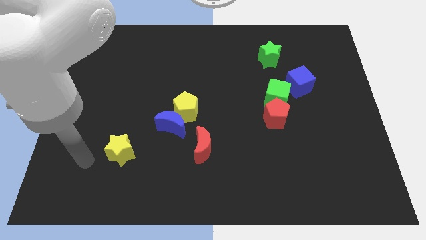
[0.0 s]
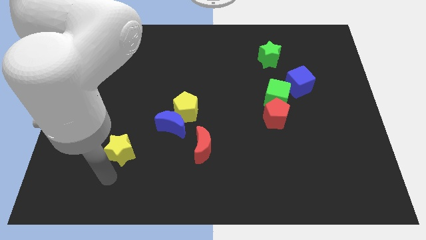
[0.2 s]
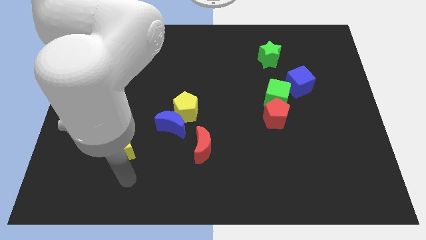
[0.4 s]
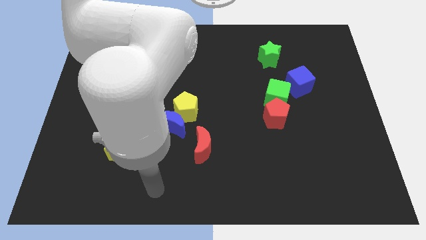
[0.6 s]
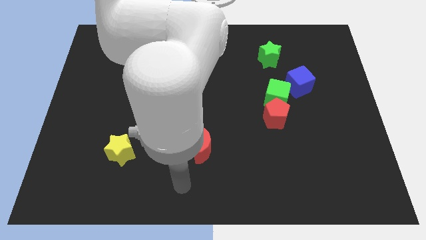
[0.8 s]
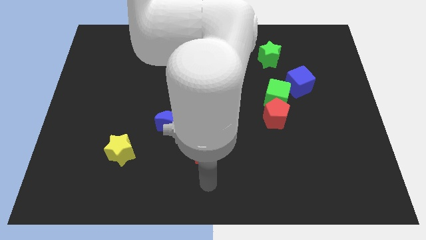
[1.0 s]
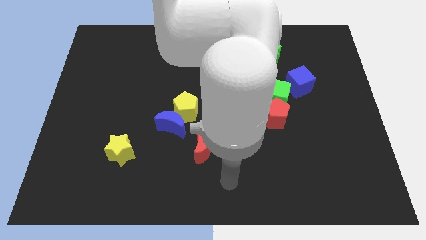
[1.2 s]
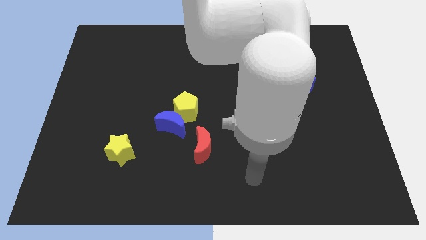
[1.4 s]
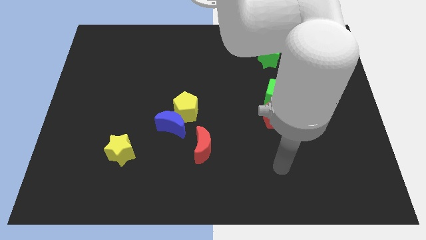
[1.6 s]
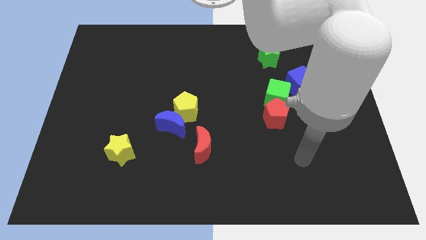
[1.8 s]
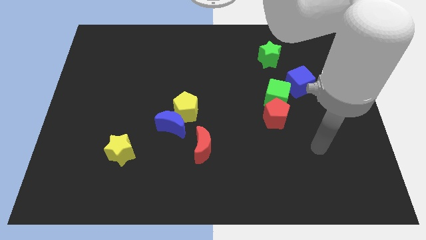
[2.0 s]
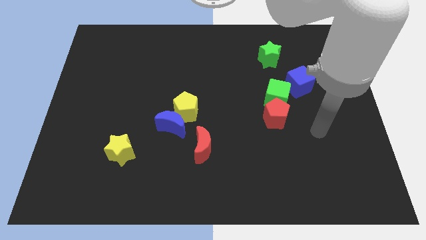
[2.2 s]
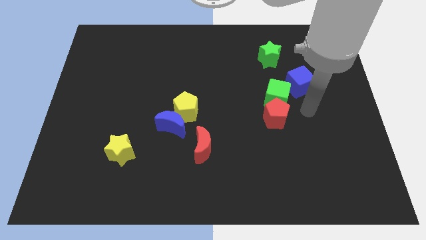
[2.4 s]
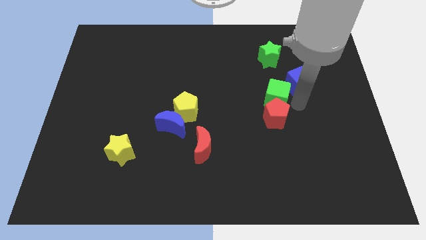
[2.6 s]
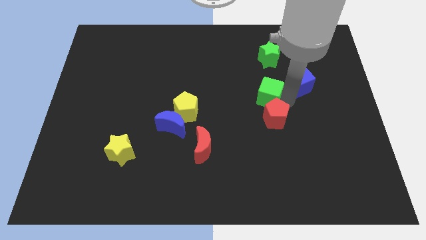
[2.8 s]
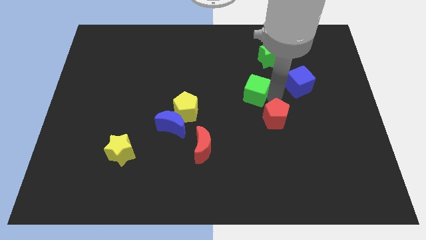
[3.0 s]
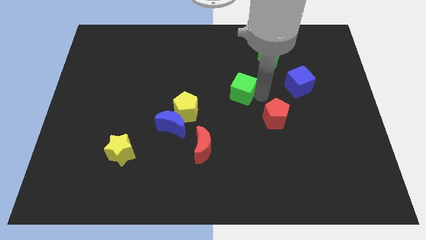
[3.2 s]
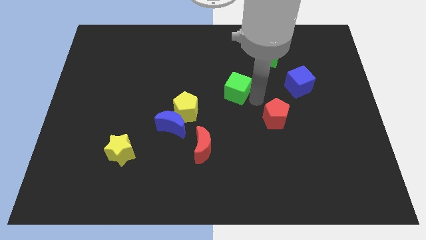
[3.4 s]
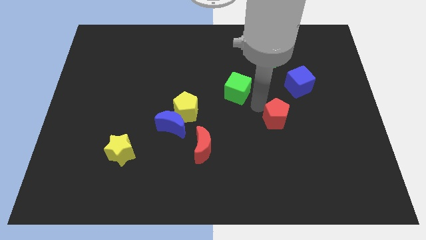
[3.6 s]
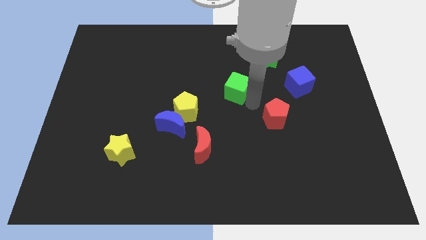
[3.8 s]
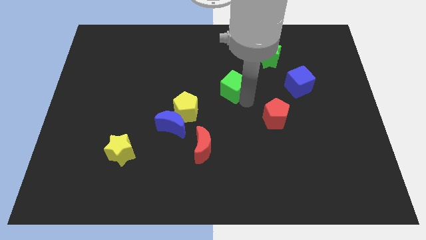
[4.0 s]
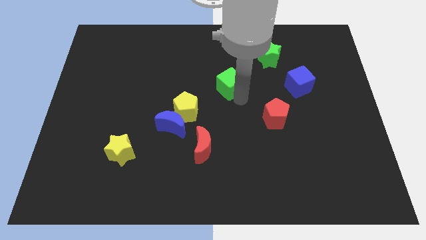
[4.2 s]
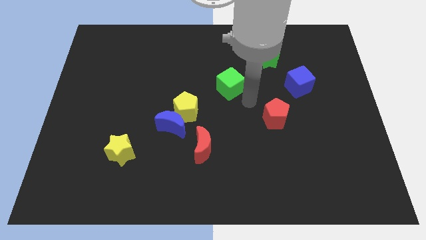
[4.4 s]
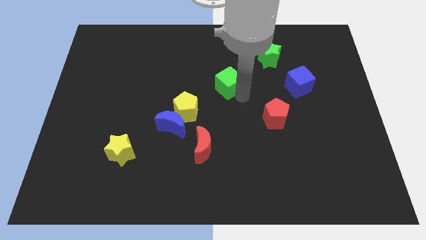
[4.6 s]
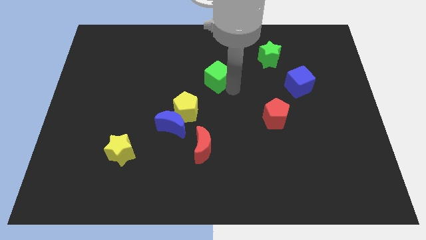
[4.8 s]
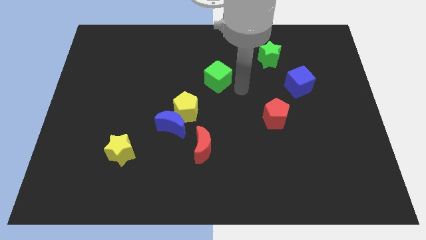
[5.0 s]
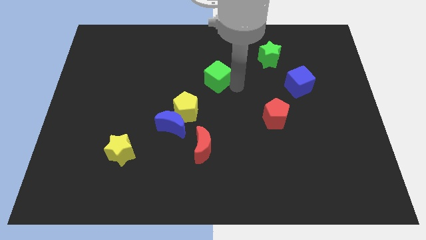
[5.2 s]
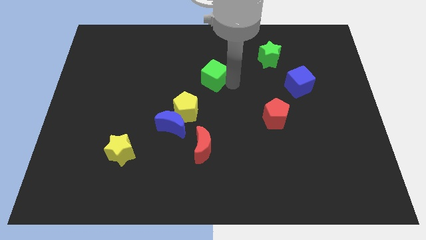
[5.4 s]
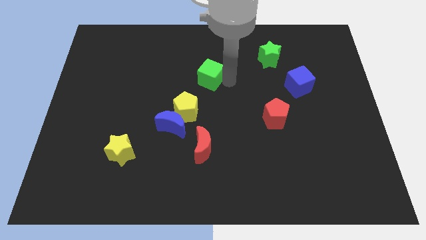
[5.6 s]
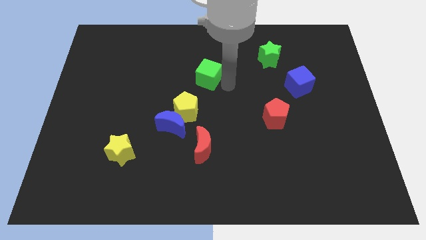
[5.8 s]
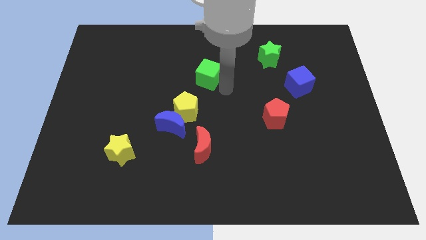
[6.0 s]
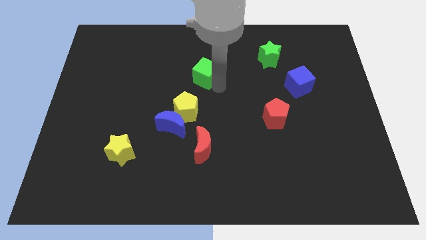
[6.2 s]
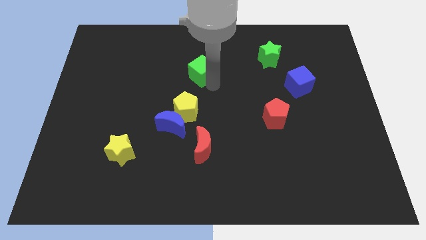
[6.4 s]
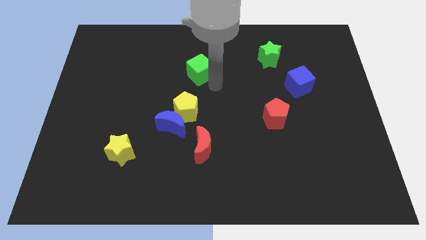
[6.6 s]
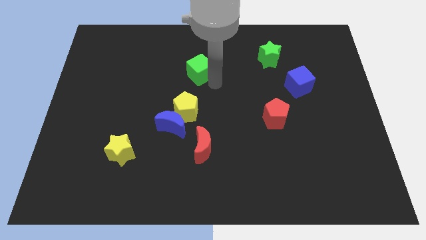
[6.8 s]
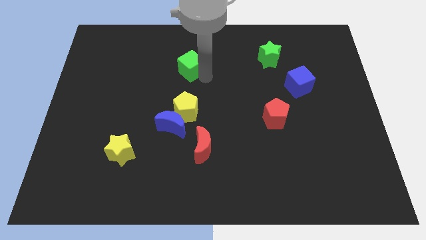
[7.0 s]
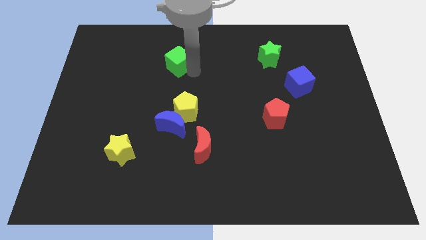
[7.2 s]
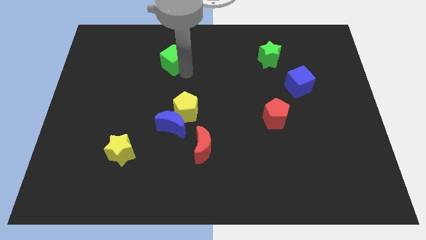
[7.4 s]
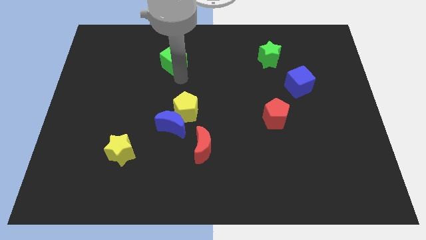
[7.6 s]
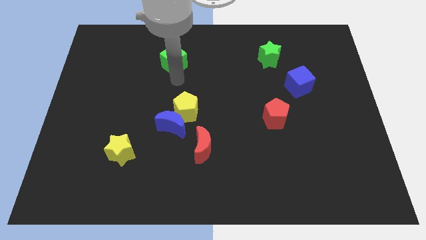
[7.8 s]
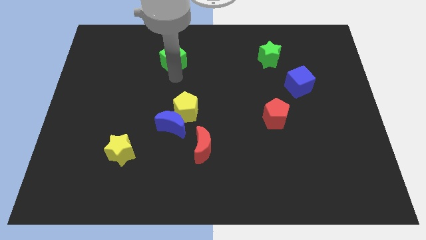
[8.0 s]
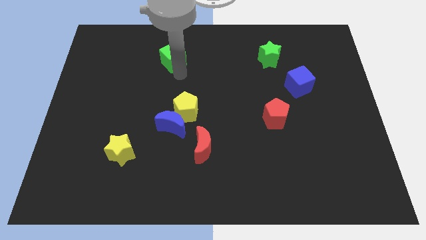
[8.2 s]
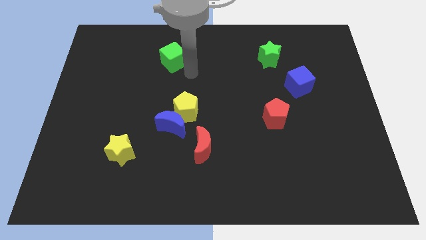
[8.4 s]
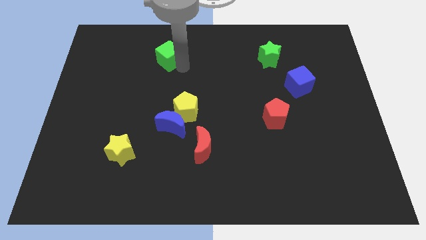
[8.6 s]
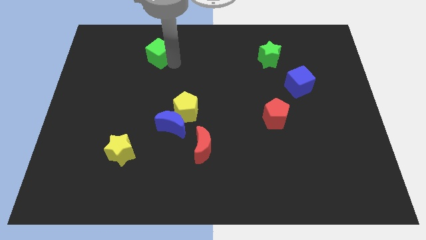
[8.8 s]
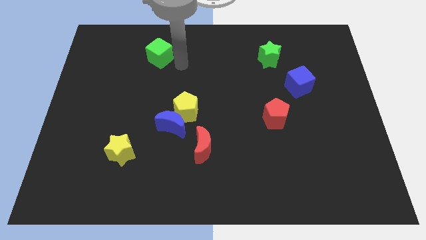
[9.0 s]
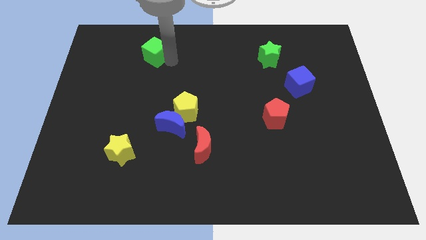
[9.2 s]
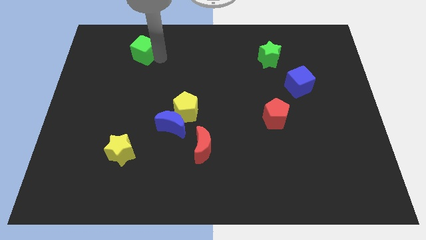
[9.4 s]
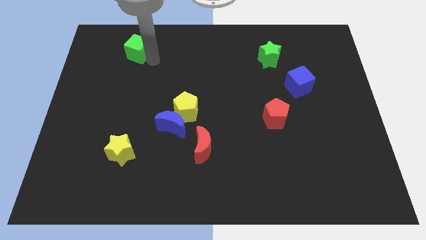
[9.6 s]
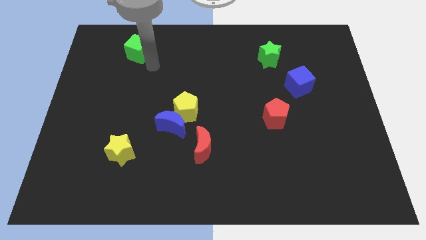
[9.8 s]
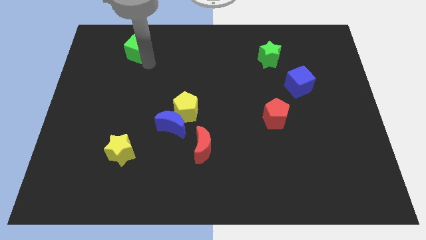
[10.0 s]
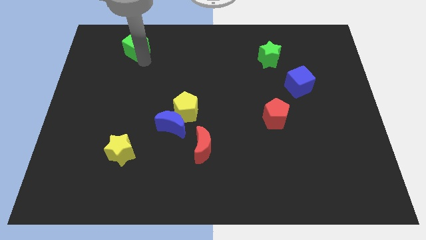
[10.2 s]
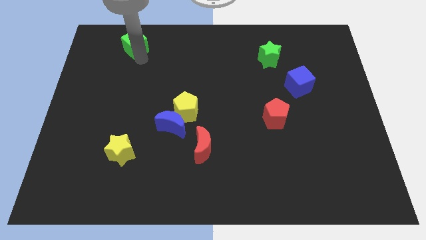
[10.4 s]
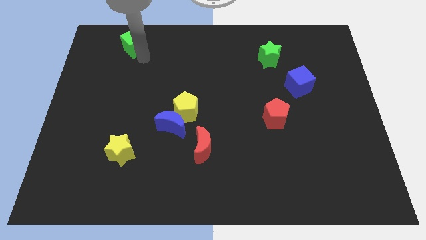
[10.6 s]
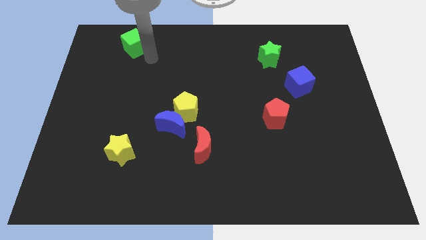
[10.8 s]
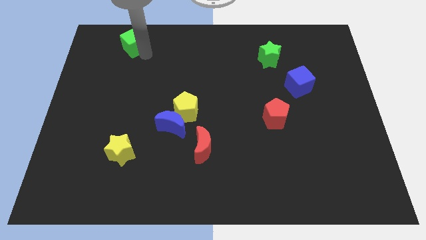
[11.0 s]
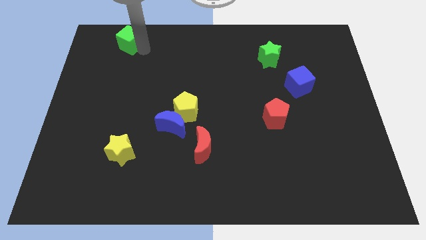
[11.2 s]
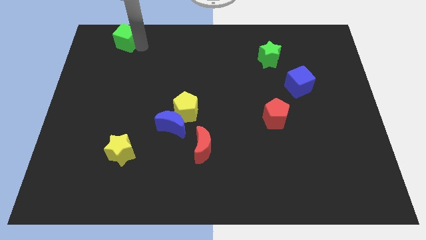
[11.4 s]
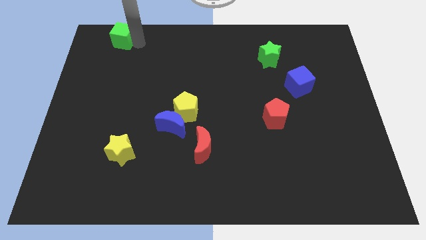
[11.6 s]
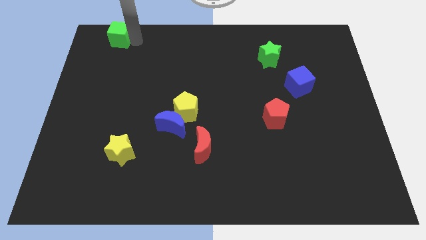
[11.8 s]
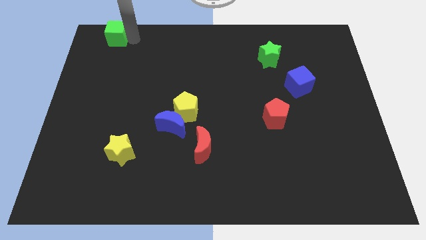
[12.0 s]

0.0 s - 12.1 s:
put the green cube to the top left of the board

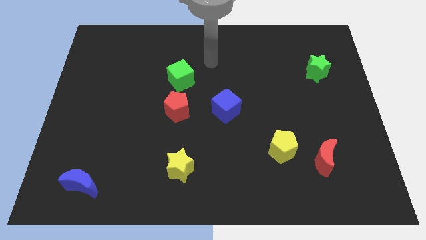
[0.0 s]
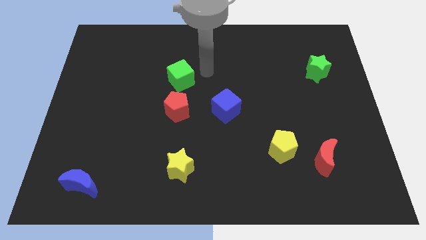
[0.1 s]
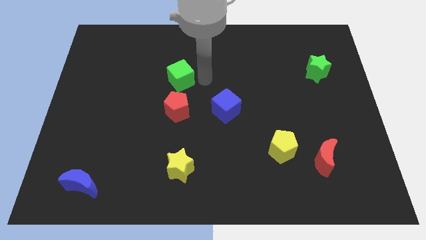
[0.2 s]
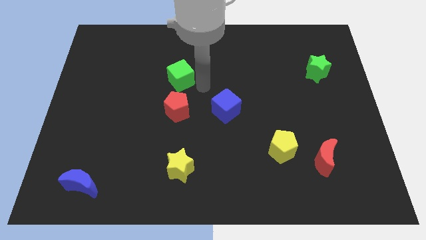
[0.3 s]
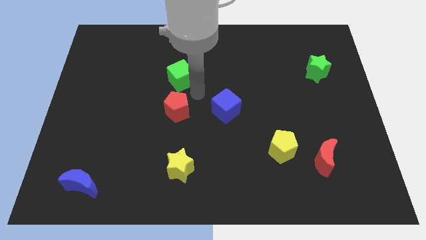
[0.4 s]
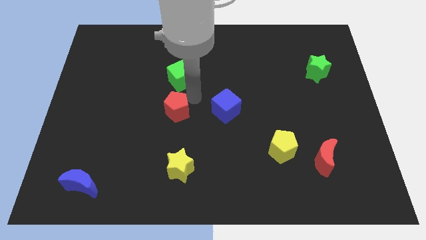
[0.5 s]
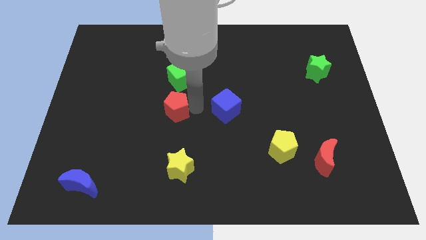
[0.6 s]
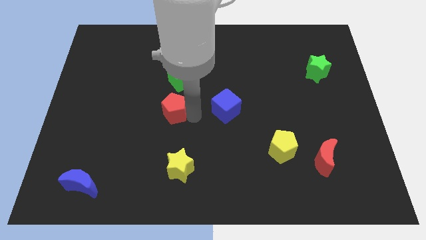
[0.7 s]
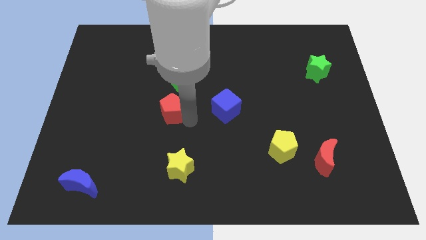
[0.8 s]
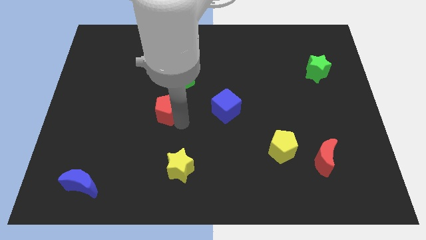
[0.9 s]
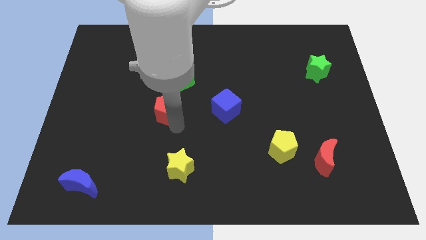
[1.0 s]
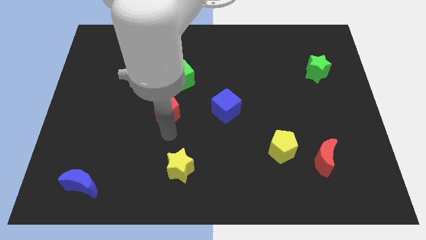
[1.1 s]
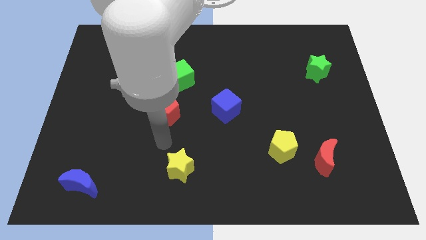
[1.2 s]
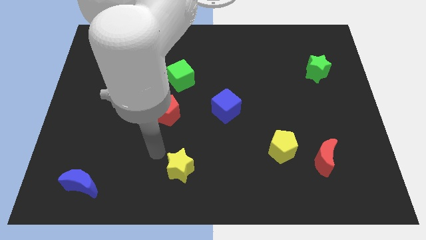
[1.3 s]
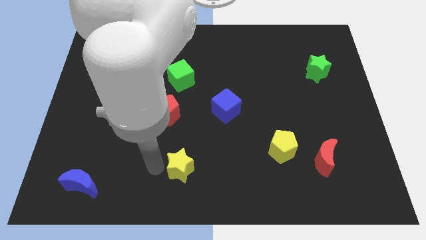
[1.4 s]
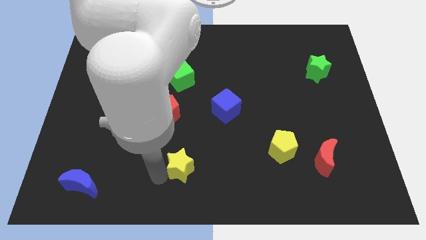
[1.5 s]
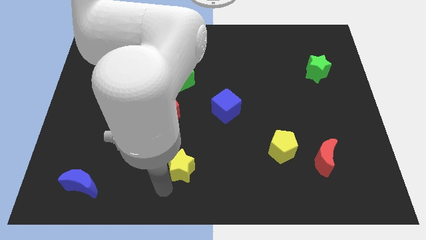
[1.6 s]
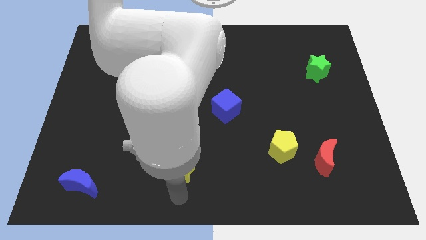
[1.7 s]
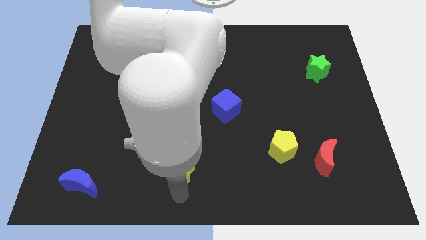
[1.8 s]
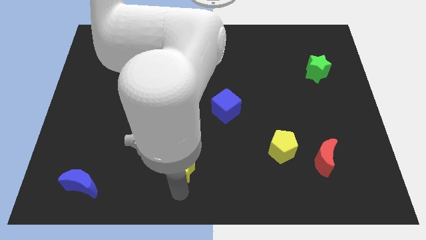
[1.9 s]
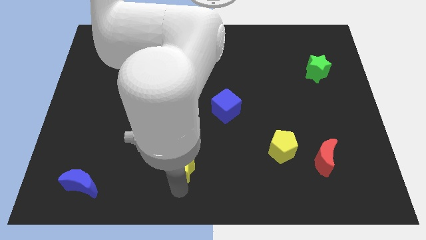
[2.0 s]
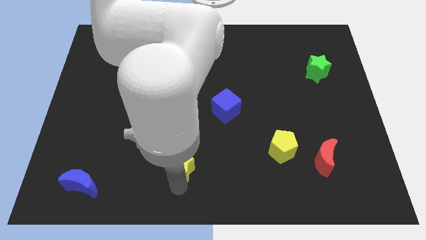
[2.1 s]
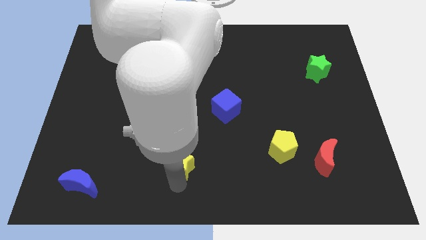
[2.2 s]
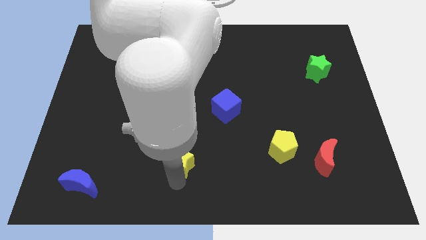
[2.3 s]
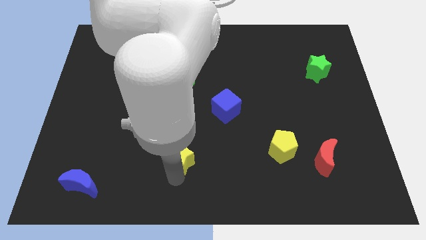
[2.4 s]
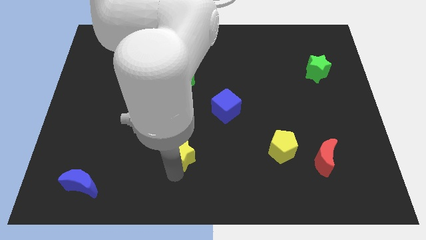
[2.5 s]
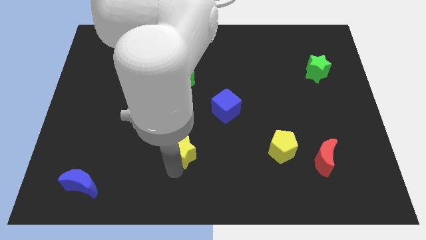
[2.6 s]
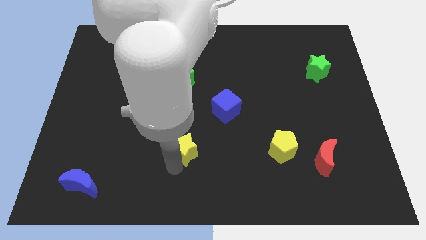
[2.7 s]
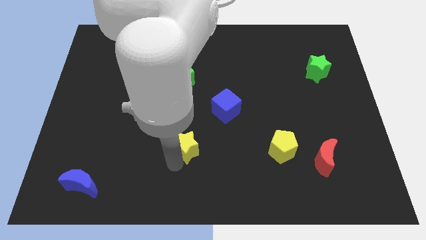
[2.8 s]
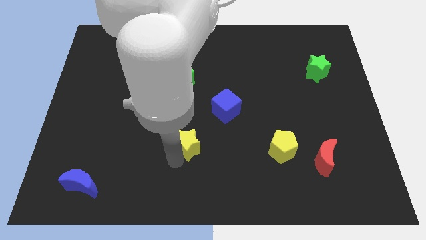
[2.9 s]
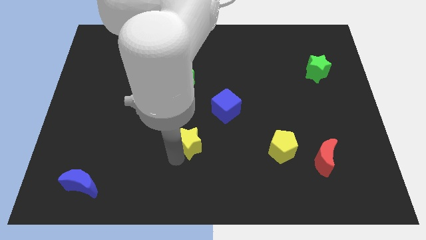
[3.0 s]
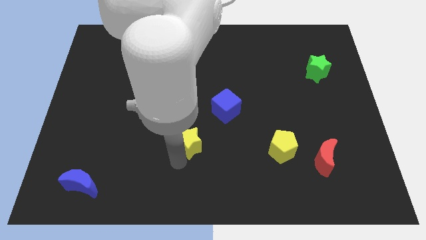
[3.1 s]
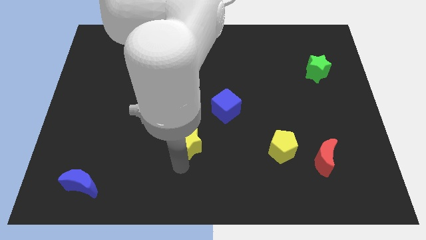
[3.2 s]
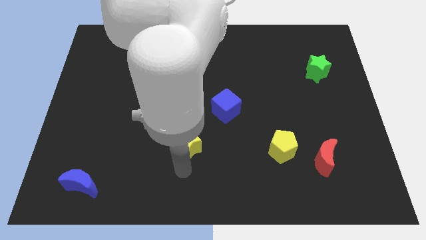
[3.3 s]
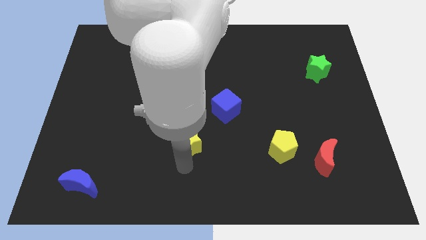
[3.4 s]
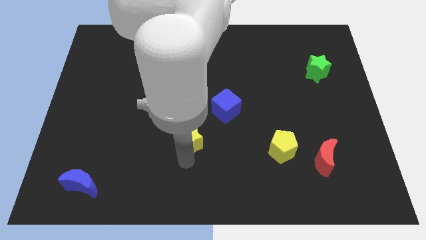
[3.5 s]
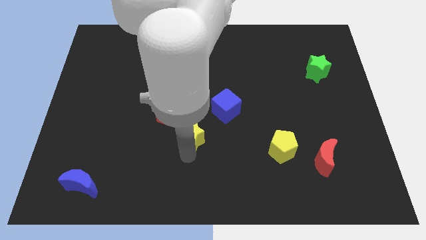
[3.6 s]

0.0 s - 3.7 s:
move the yellow star to the middle of the board
